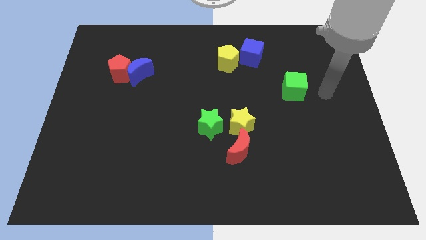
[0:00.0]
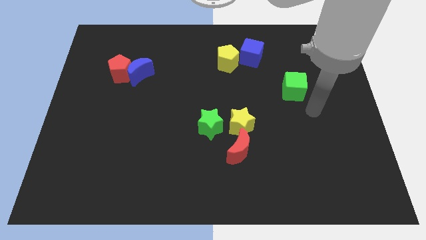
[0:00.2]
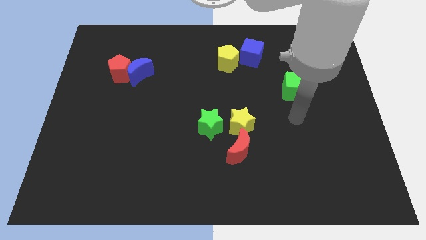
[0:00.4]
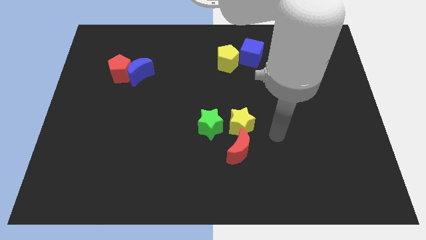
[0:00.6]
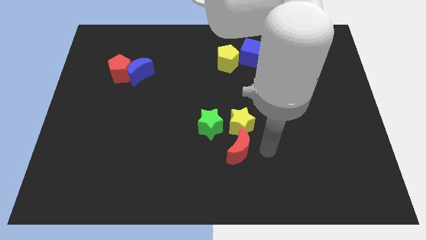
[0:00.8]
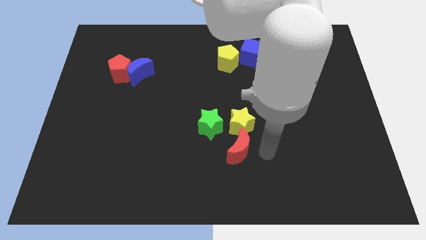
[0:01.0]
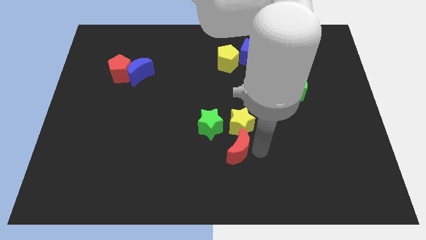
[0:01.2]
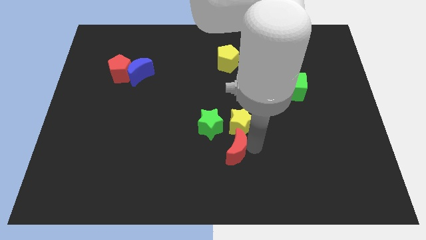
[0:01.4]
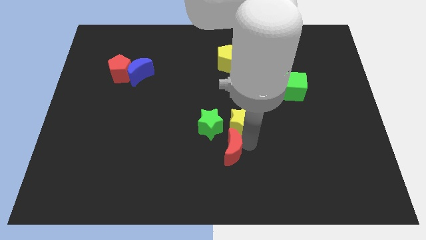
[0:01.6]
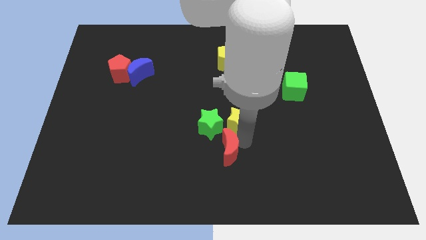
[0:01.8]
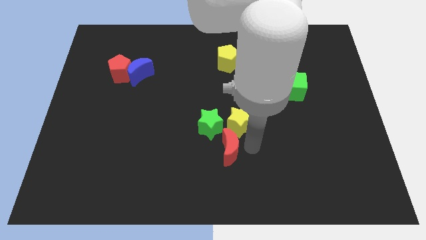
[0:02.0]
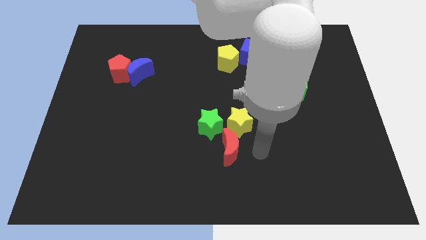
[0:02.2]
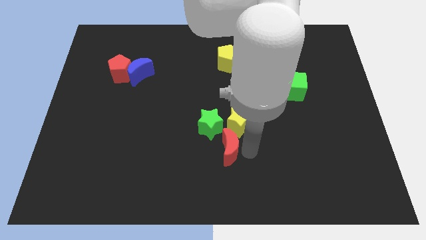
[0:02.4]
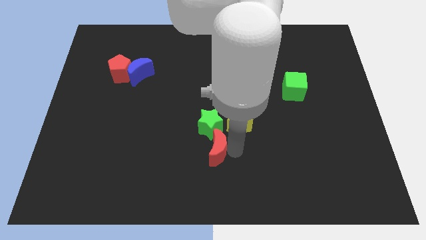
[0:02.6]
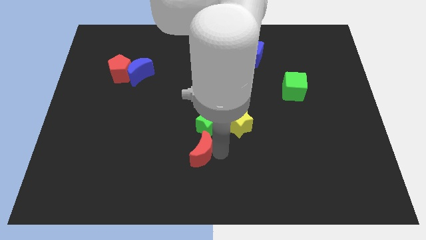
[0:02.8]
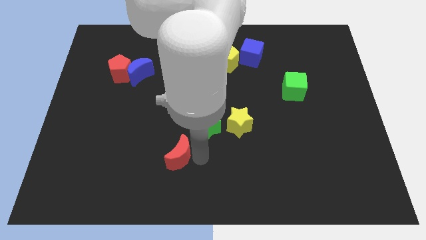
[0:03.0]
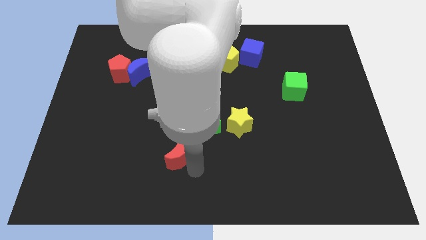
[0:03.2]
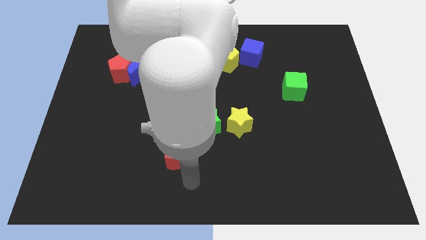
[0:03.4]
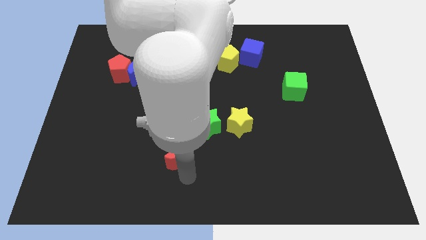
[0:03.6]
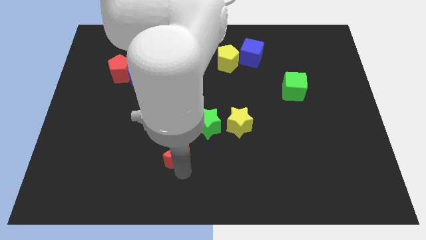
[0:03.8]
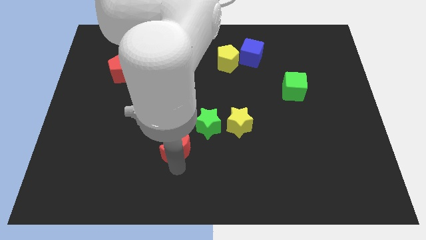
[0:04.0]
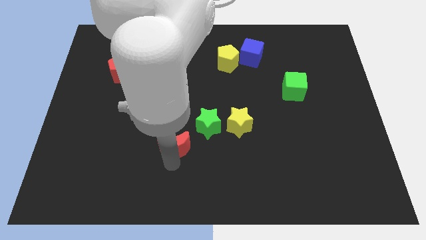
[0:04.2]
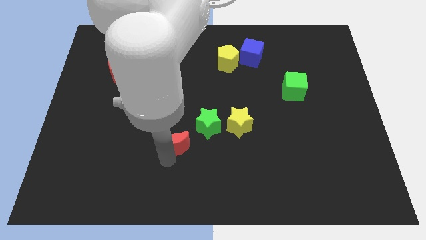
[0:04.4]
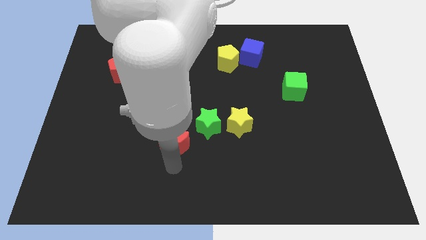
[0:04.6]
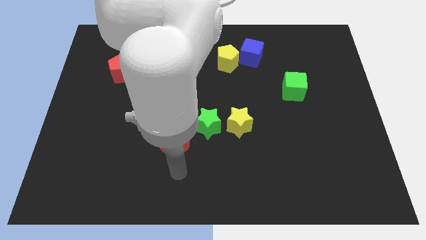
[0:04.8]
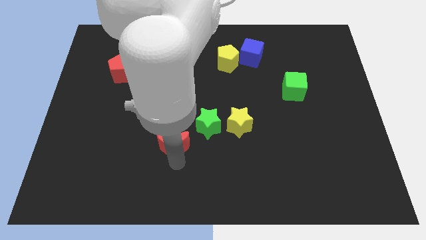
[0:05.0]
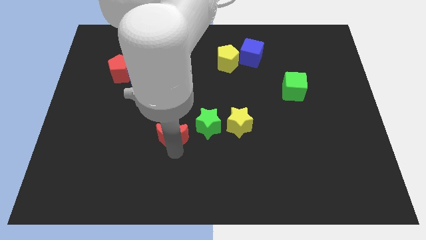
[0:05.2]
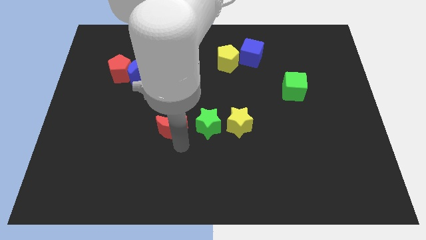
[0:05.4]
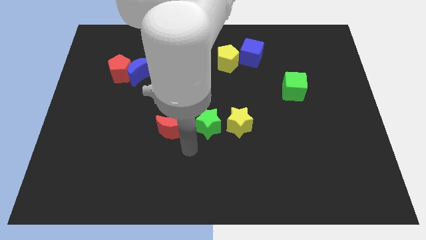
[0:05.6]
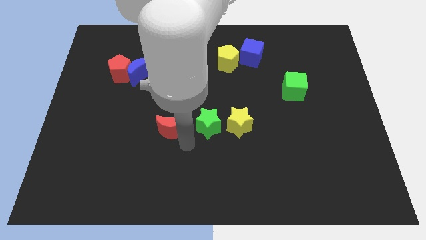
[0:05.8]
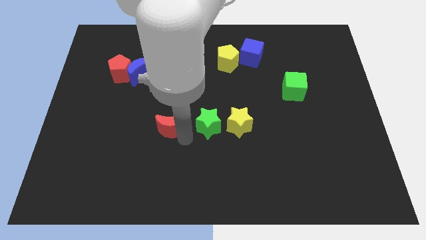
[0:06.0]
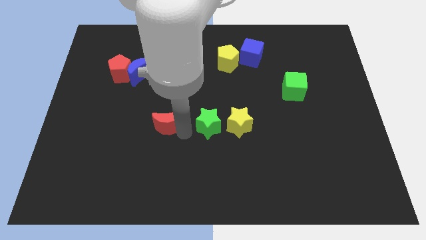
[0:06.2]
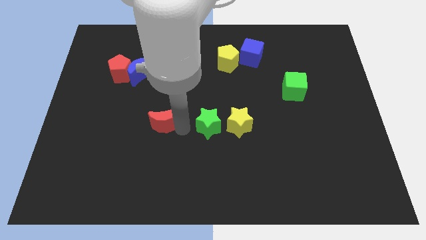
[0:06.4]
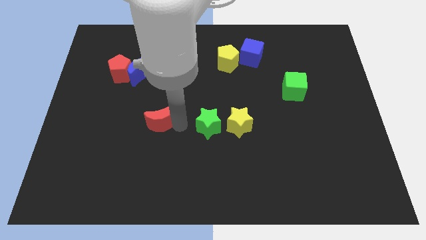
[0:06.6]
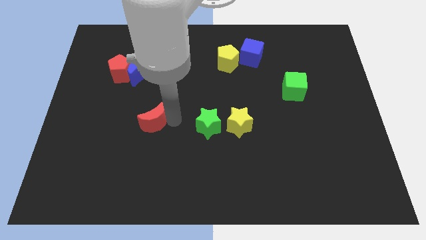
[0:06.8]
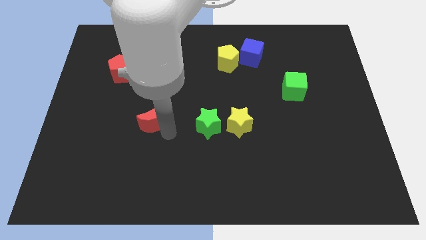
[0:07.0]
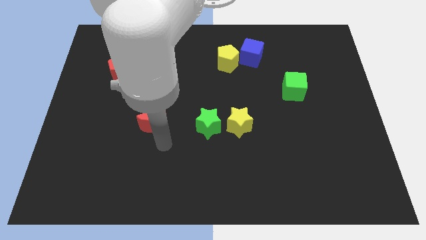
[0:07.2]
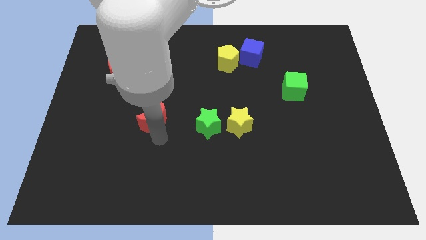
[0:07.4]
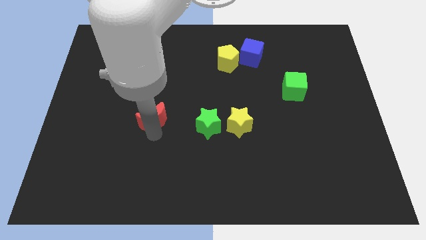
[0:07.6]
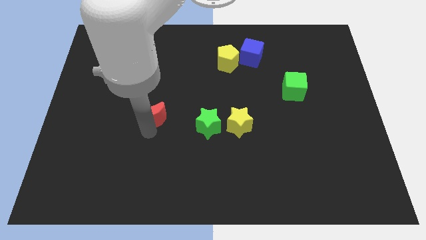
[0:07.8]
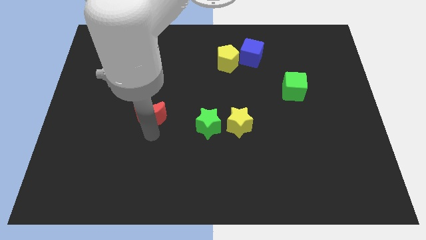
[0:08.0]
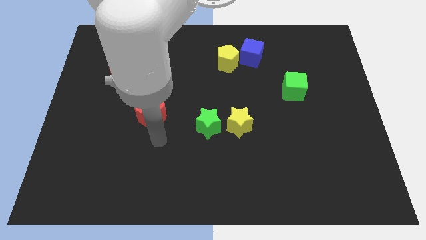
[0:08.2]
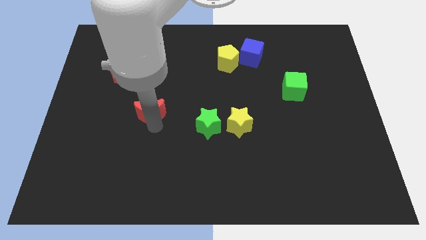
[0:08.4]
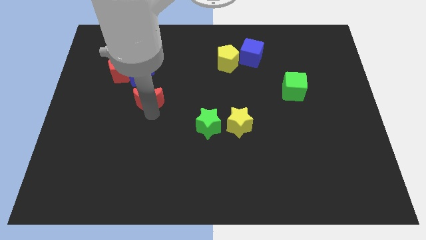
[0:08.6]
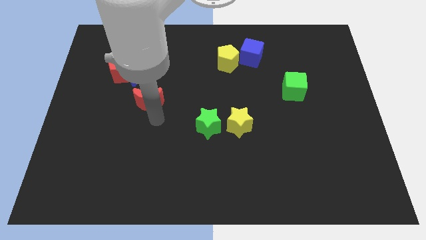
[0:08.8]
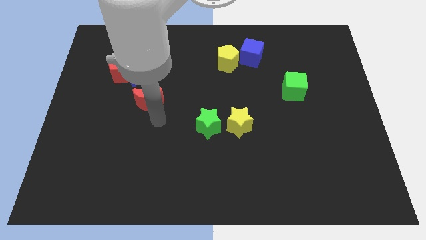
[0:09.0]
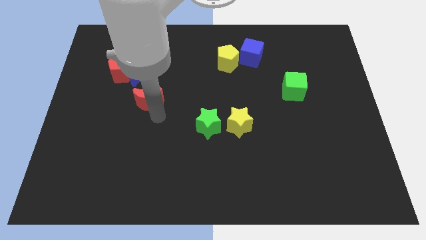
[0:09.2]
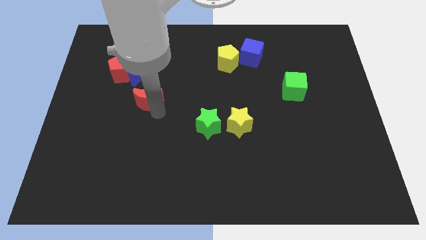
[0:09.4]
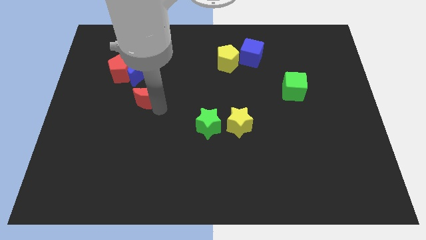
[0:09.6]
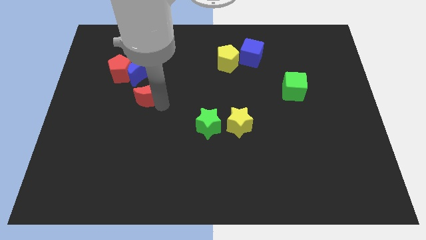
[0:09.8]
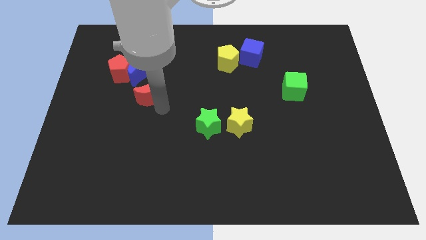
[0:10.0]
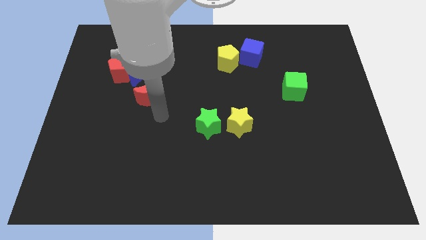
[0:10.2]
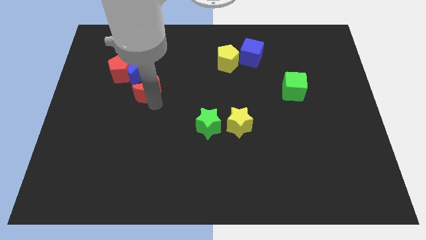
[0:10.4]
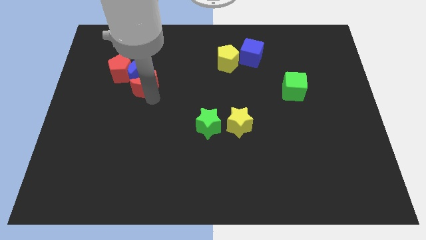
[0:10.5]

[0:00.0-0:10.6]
push the red moon next to the blue moon

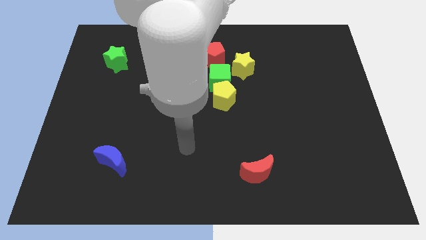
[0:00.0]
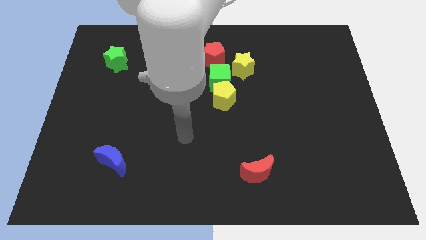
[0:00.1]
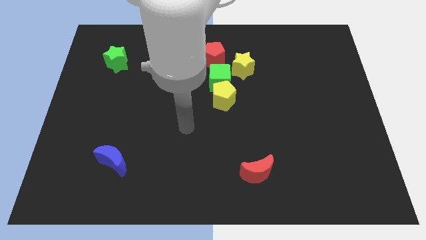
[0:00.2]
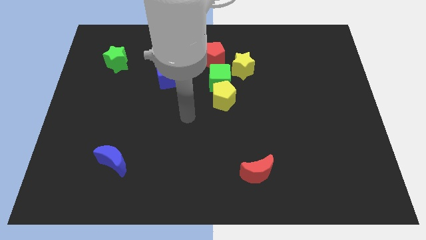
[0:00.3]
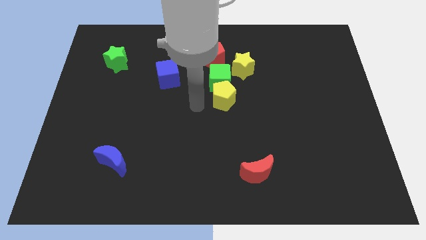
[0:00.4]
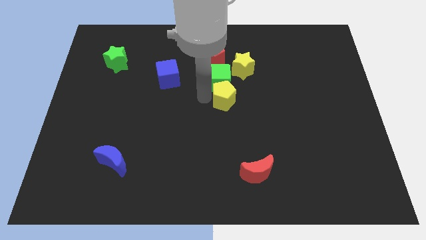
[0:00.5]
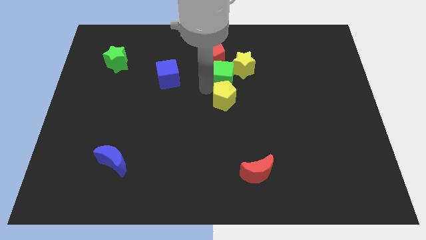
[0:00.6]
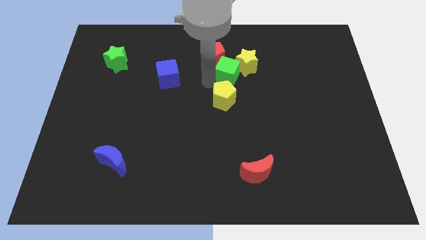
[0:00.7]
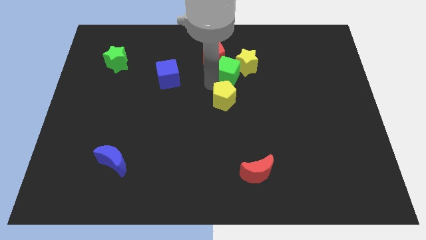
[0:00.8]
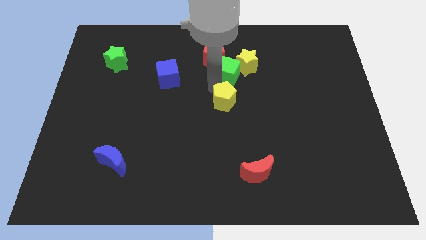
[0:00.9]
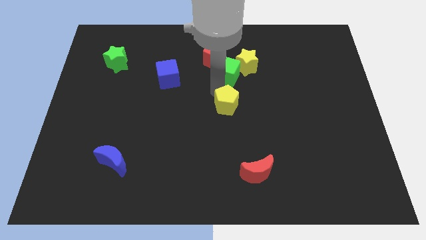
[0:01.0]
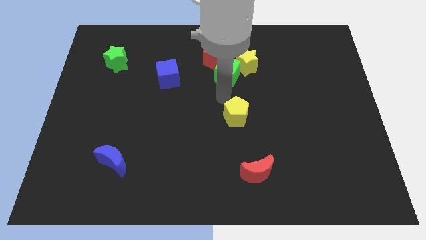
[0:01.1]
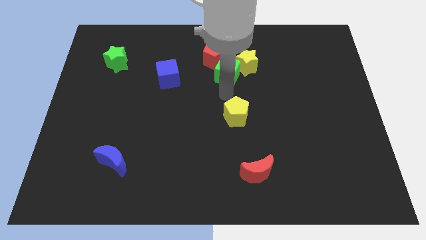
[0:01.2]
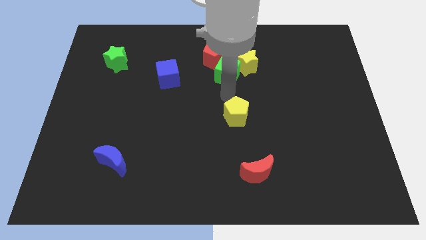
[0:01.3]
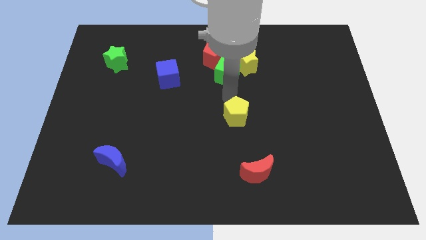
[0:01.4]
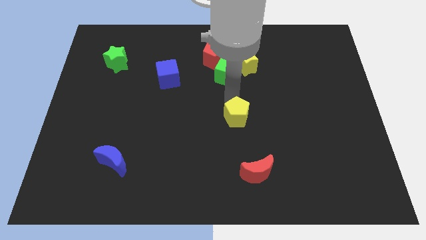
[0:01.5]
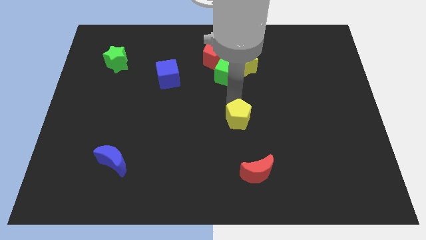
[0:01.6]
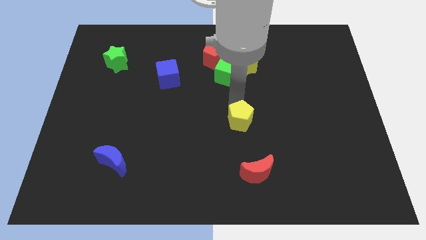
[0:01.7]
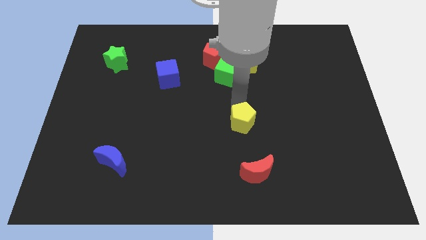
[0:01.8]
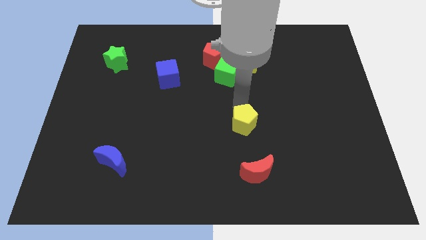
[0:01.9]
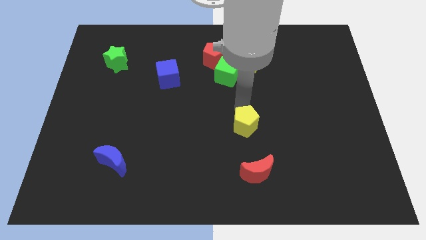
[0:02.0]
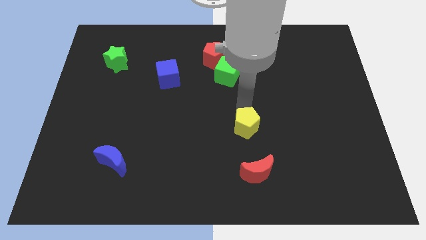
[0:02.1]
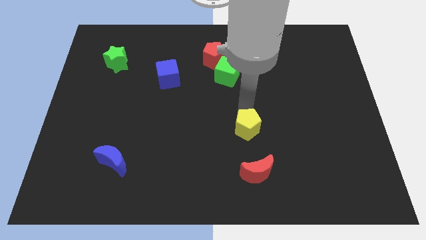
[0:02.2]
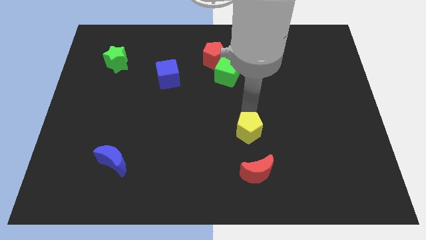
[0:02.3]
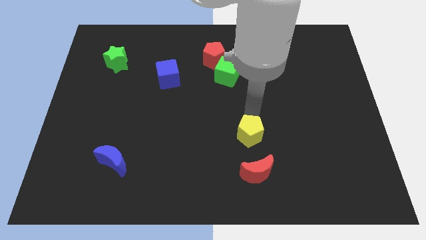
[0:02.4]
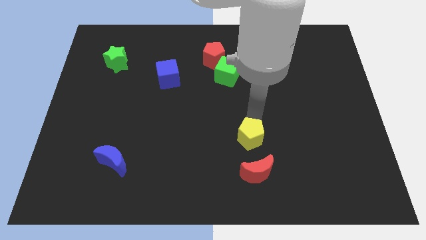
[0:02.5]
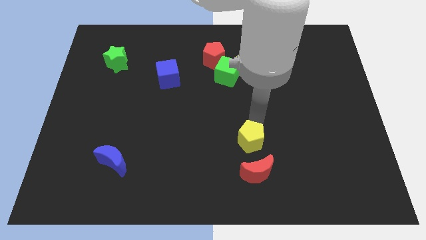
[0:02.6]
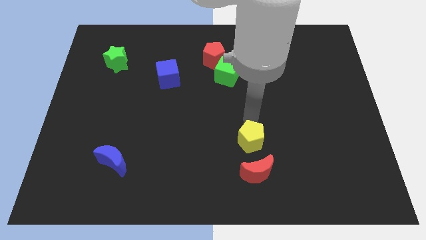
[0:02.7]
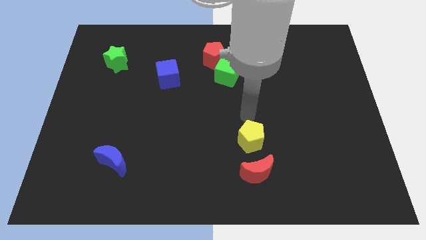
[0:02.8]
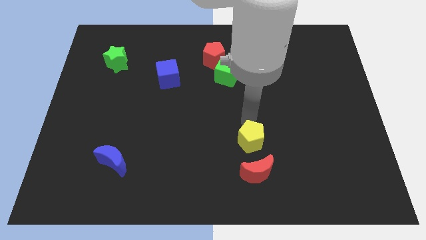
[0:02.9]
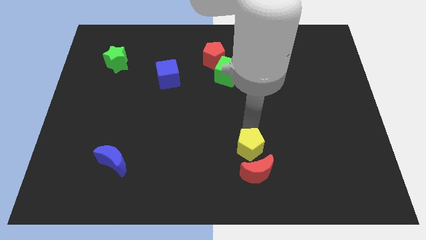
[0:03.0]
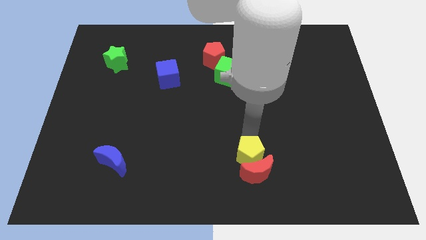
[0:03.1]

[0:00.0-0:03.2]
push the yellow pentagon towards the red moon
